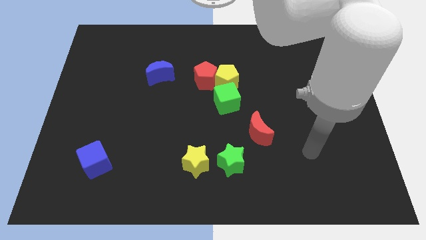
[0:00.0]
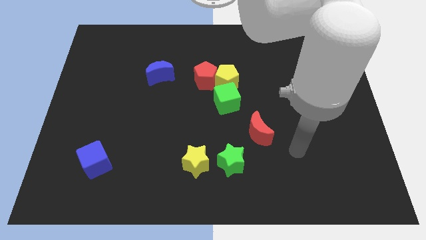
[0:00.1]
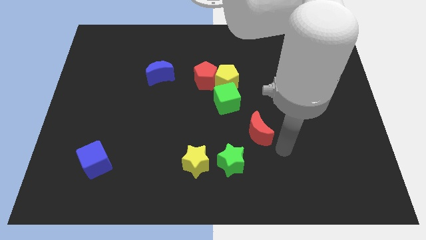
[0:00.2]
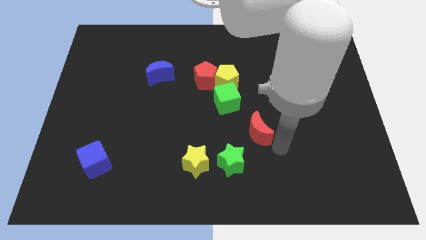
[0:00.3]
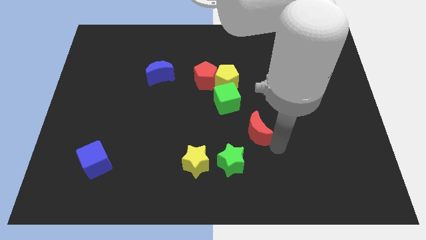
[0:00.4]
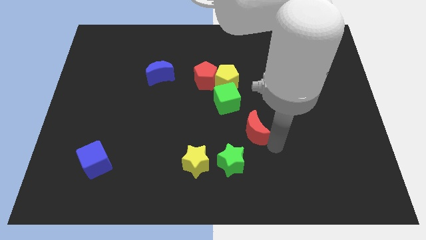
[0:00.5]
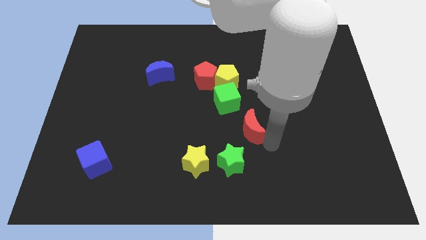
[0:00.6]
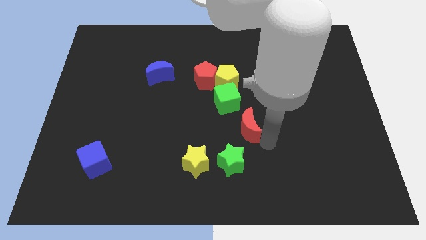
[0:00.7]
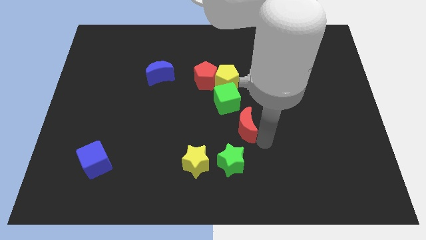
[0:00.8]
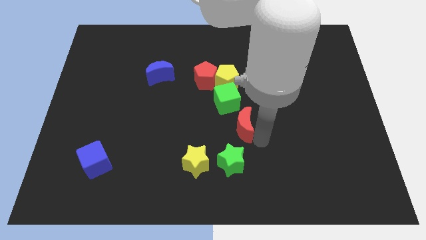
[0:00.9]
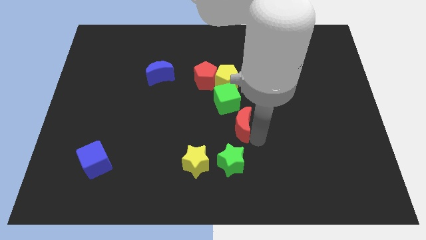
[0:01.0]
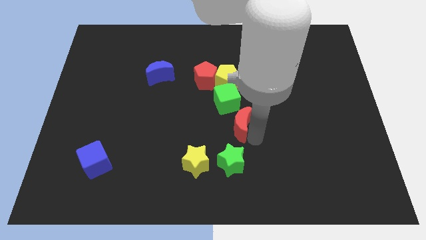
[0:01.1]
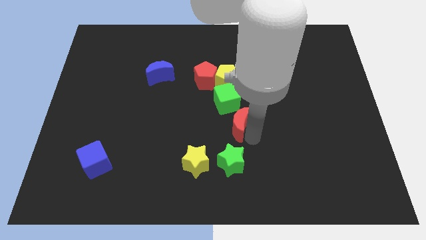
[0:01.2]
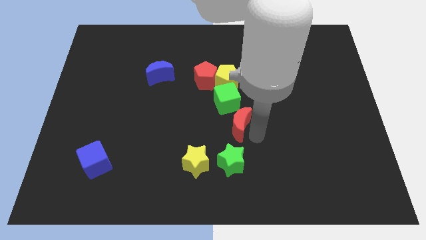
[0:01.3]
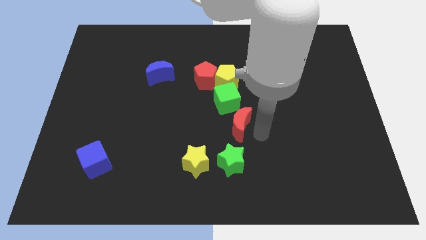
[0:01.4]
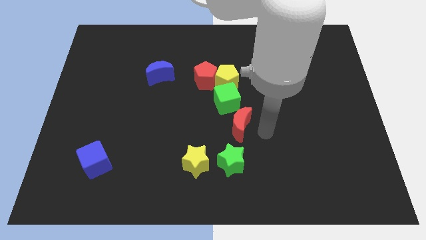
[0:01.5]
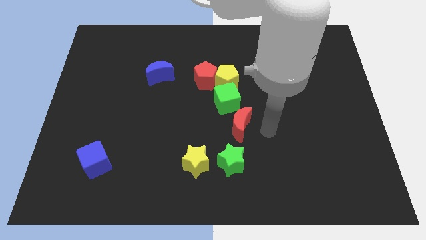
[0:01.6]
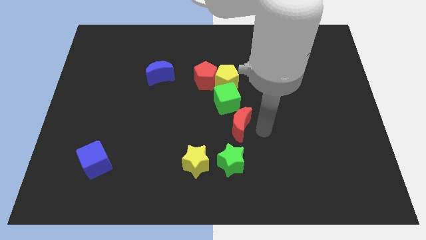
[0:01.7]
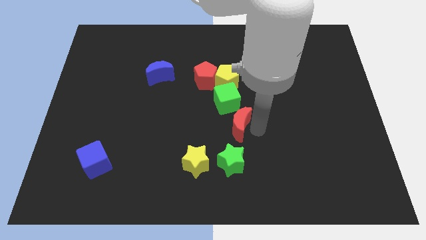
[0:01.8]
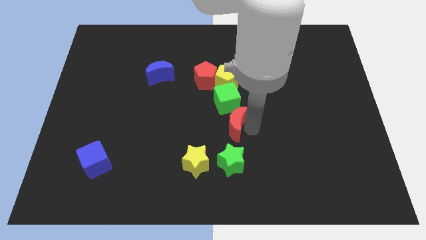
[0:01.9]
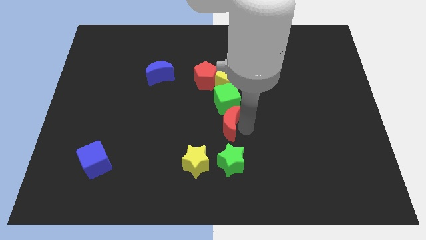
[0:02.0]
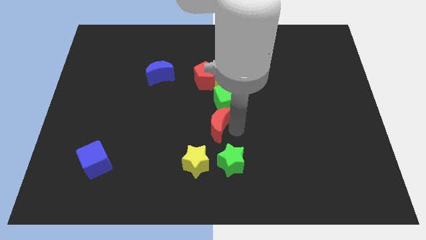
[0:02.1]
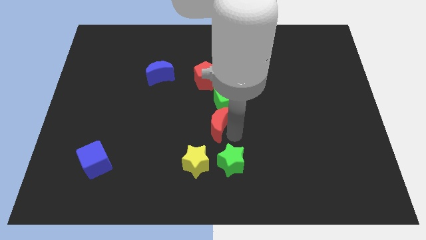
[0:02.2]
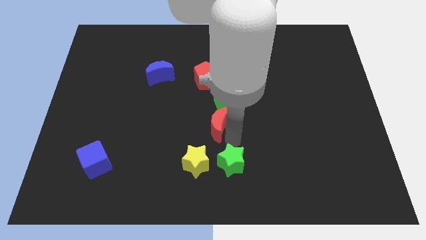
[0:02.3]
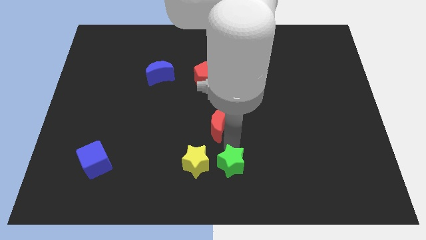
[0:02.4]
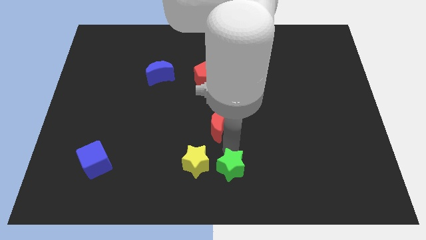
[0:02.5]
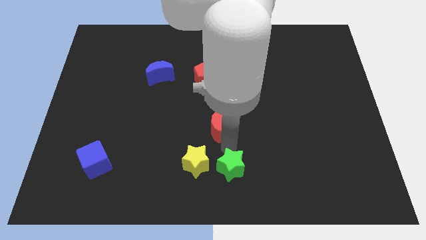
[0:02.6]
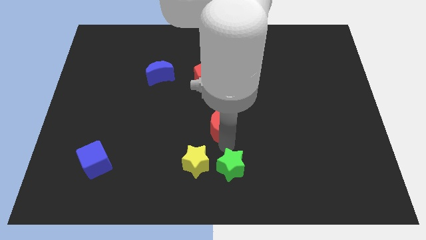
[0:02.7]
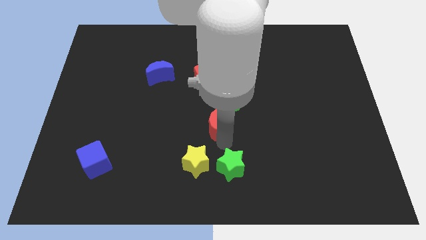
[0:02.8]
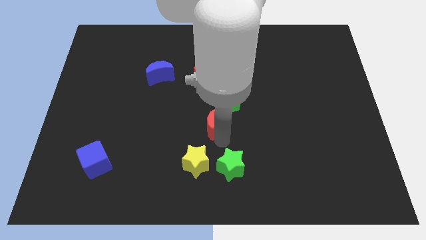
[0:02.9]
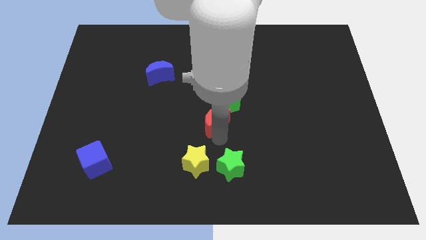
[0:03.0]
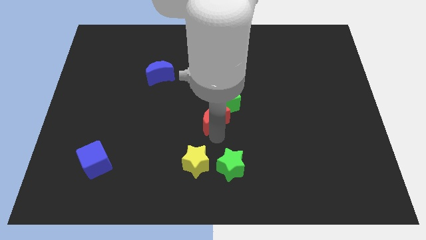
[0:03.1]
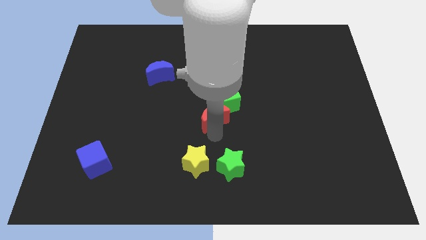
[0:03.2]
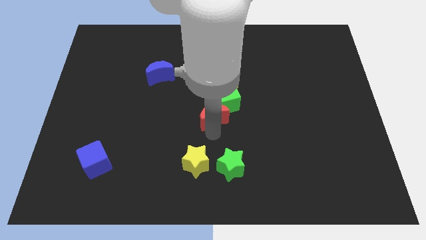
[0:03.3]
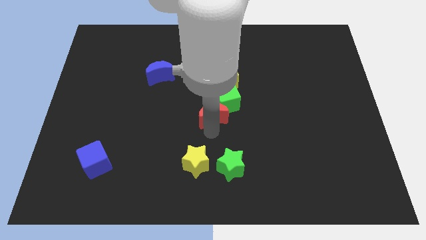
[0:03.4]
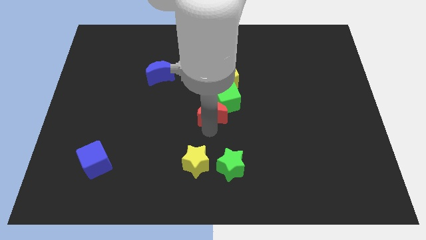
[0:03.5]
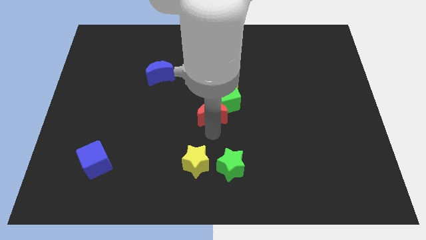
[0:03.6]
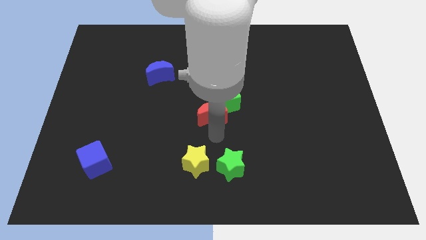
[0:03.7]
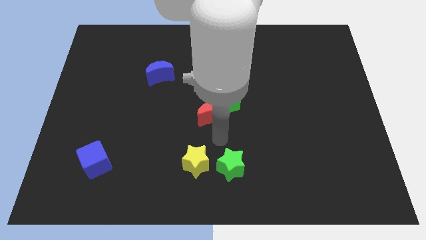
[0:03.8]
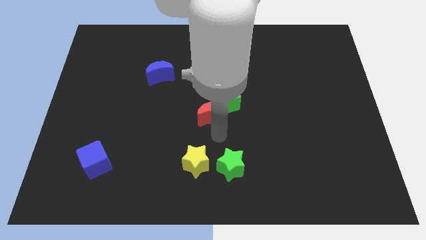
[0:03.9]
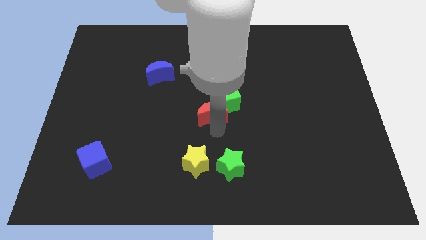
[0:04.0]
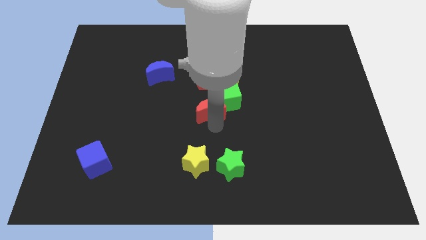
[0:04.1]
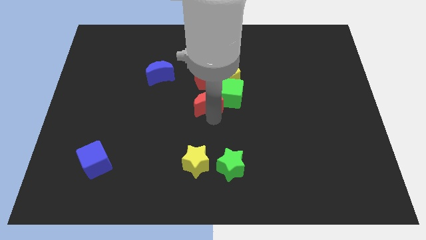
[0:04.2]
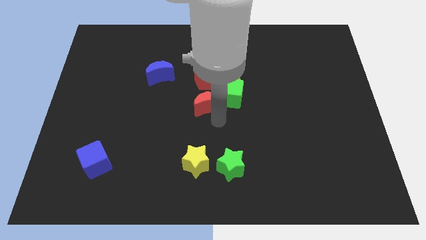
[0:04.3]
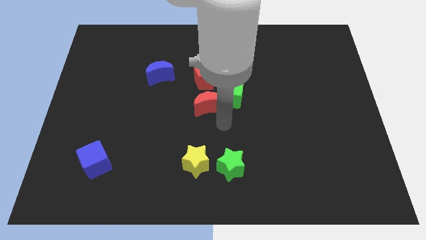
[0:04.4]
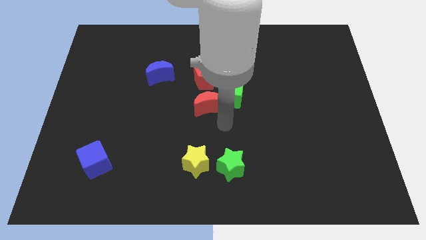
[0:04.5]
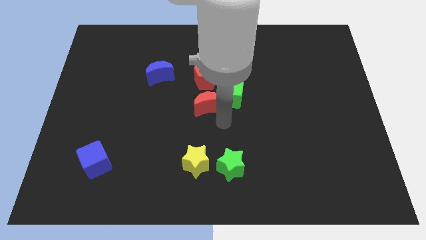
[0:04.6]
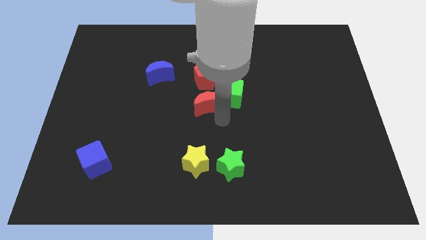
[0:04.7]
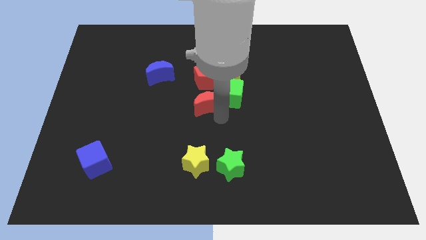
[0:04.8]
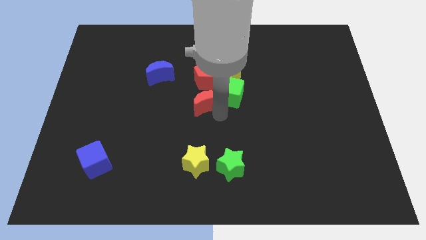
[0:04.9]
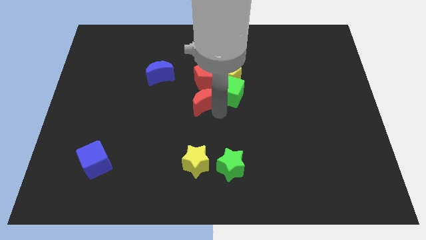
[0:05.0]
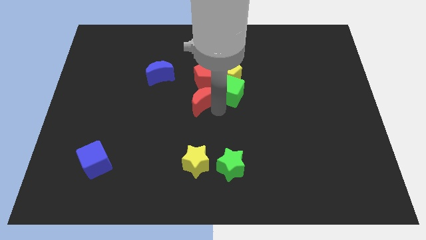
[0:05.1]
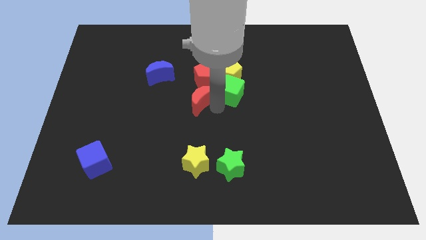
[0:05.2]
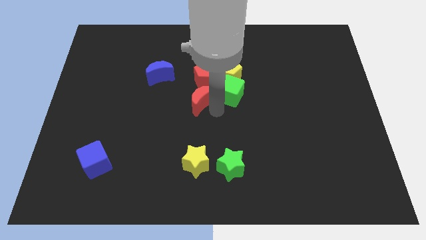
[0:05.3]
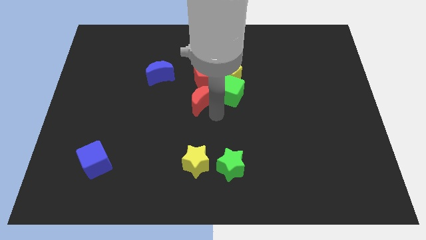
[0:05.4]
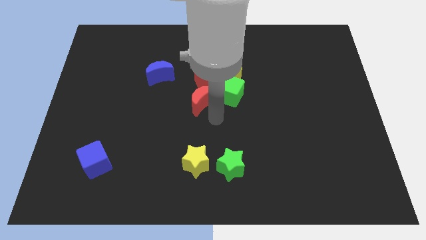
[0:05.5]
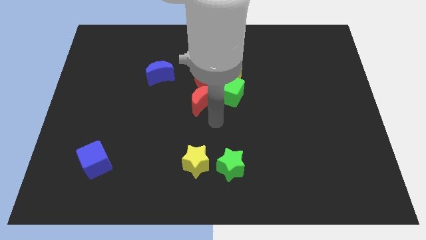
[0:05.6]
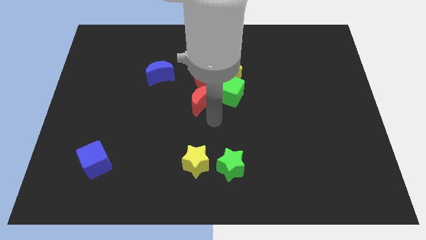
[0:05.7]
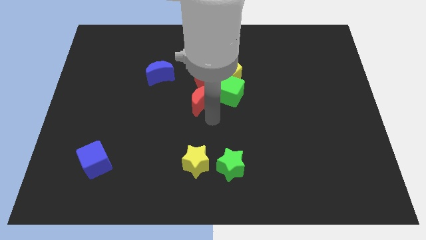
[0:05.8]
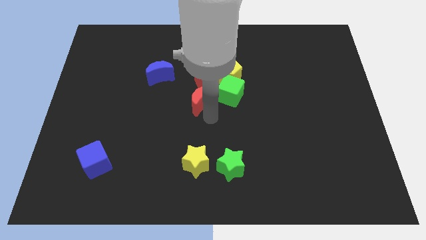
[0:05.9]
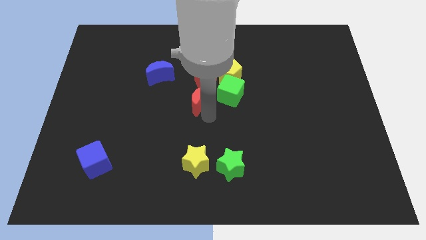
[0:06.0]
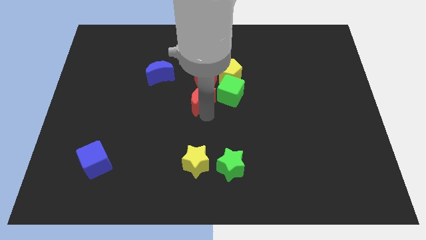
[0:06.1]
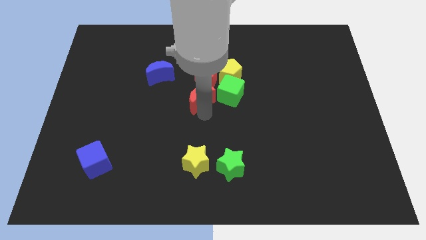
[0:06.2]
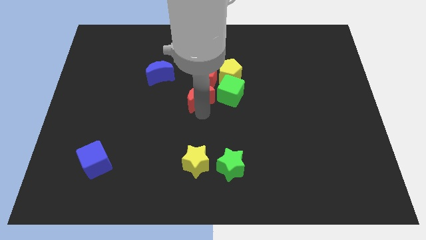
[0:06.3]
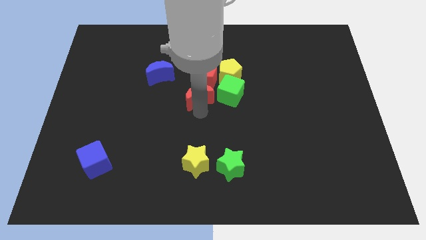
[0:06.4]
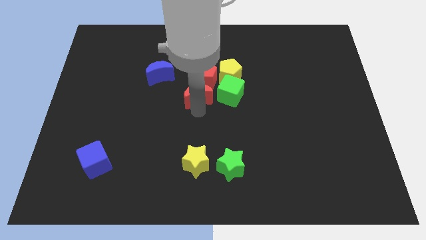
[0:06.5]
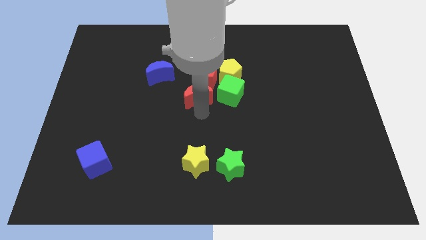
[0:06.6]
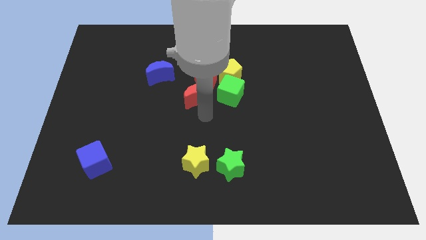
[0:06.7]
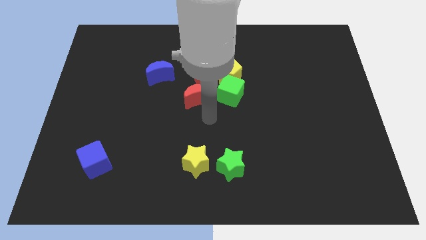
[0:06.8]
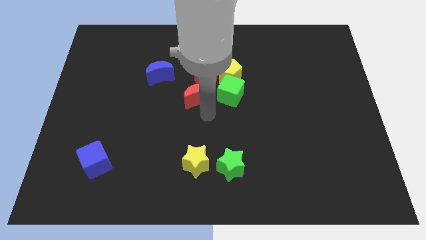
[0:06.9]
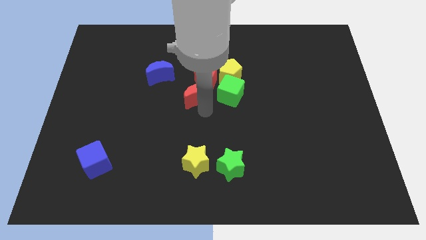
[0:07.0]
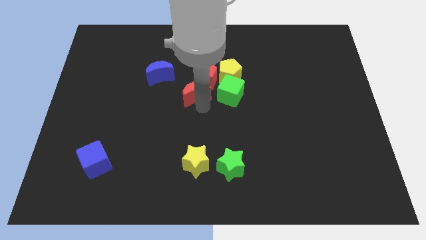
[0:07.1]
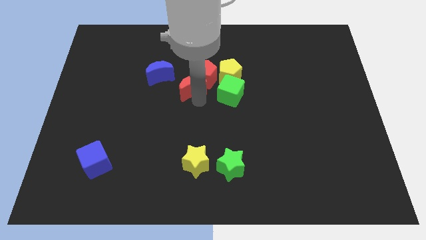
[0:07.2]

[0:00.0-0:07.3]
slide the red moon upwards and then left

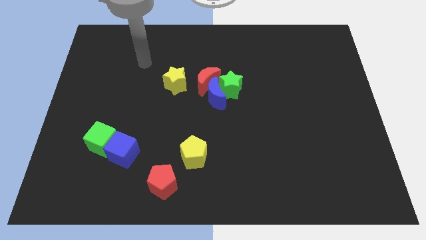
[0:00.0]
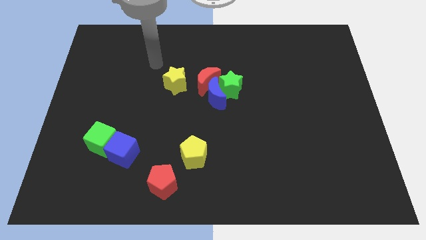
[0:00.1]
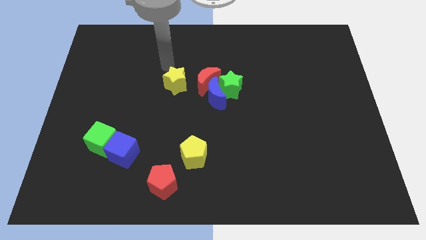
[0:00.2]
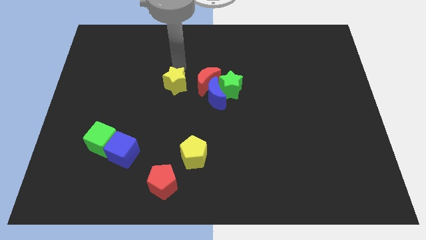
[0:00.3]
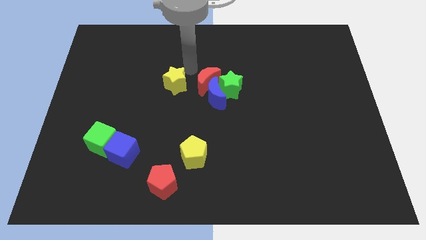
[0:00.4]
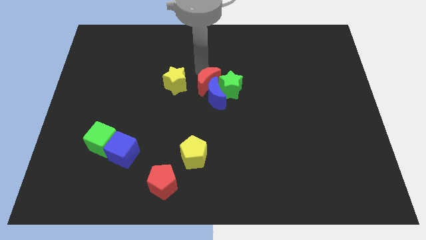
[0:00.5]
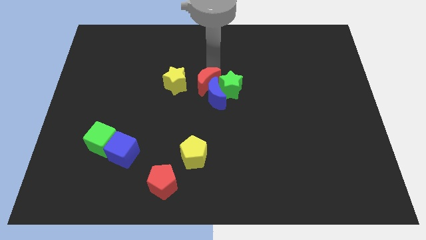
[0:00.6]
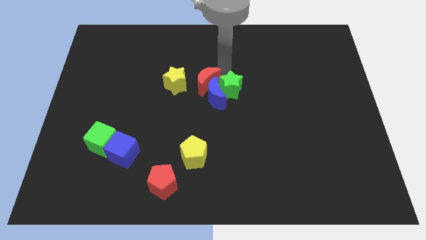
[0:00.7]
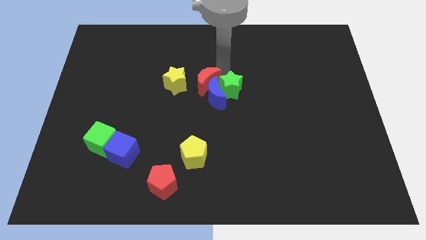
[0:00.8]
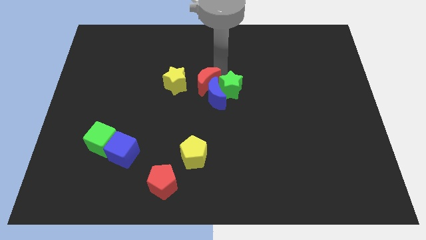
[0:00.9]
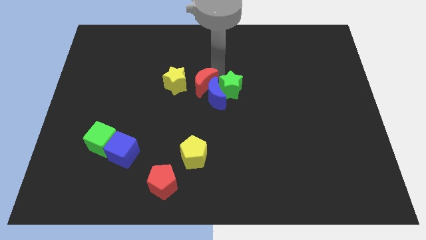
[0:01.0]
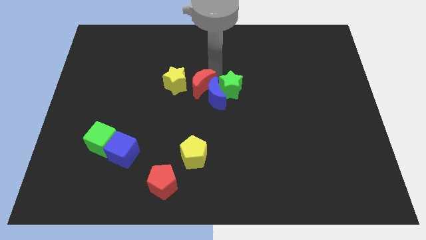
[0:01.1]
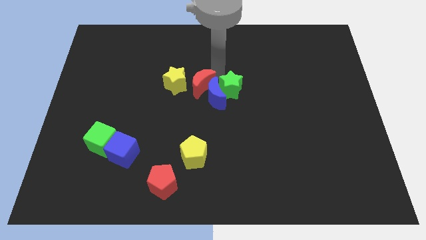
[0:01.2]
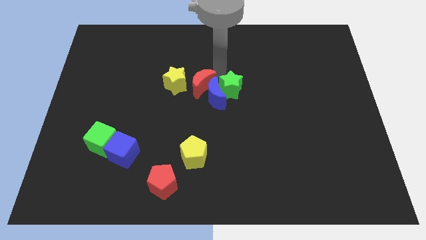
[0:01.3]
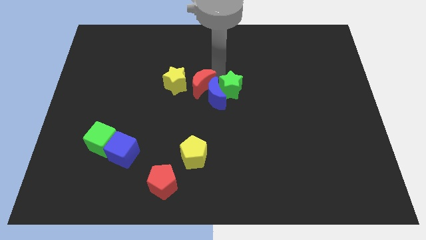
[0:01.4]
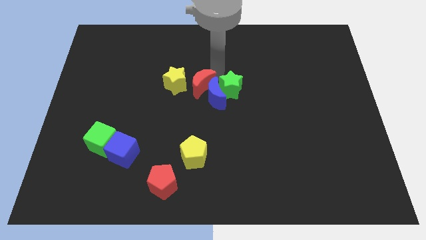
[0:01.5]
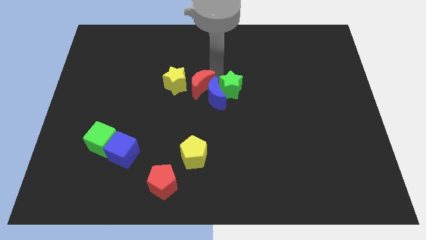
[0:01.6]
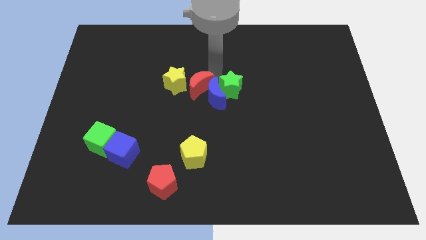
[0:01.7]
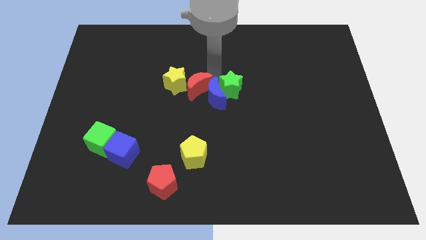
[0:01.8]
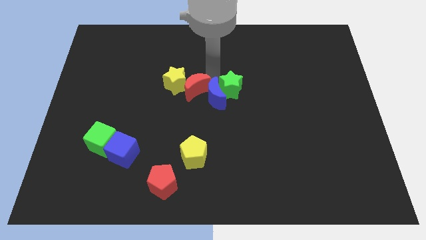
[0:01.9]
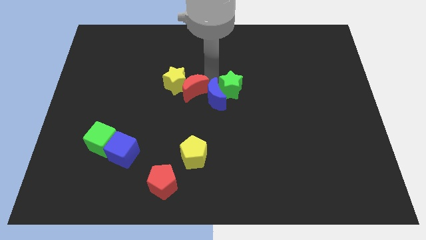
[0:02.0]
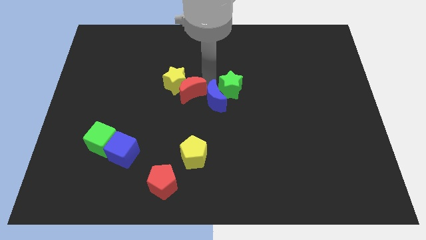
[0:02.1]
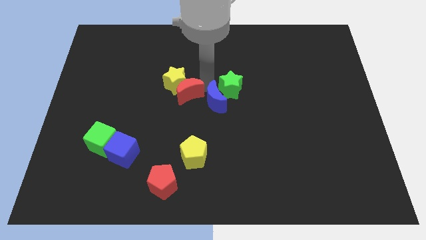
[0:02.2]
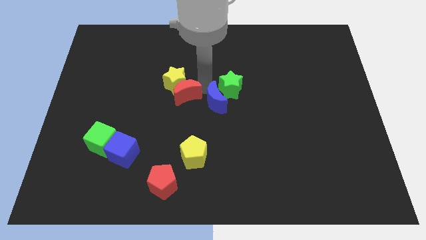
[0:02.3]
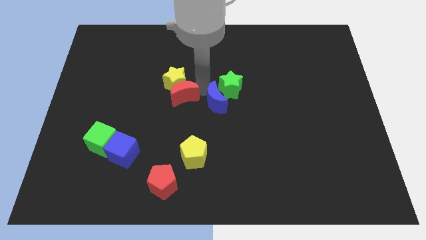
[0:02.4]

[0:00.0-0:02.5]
move the red moon diagonally down and to the left somewhat
